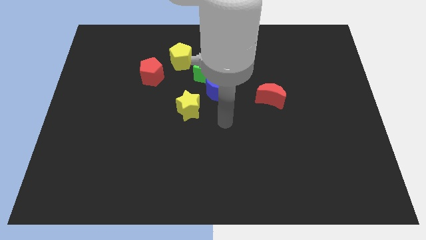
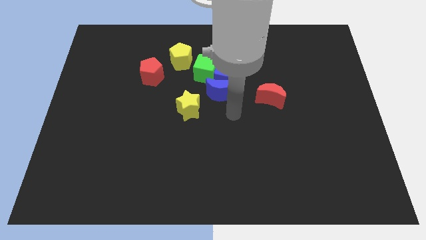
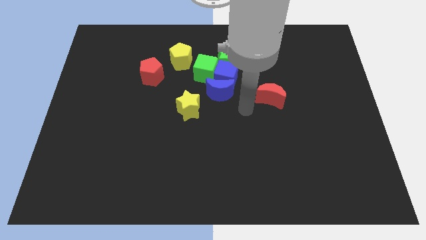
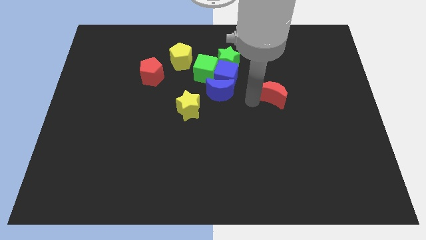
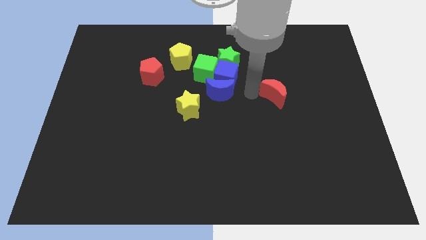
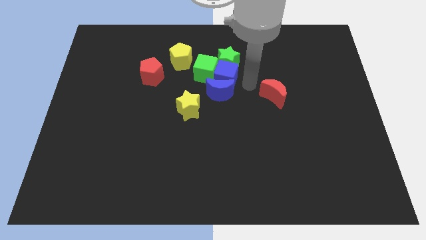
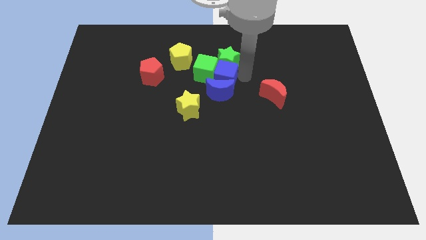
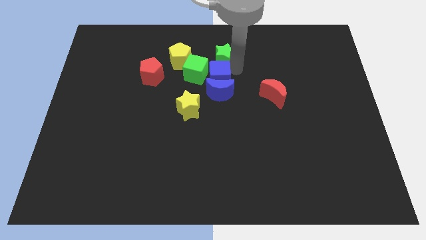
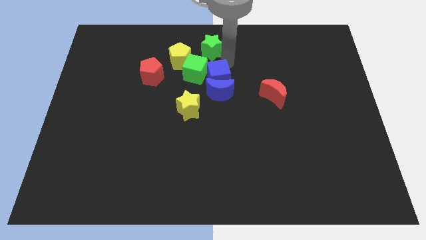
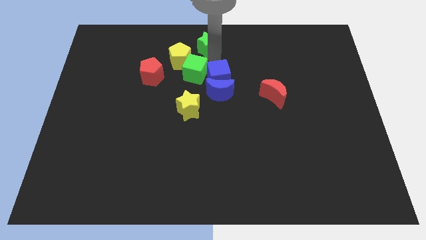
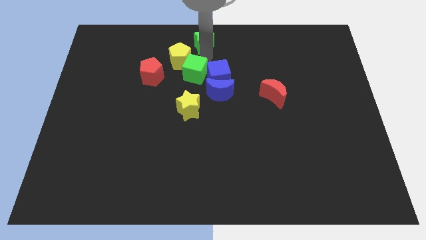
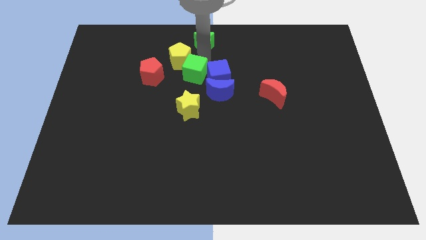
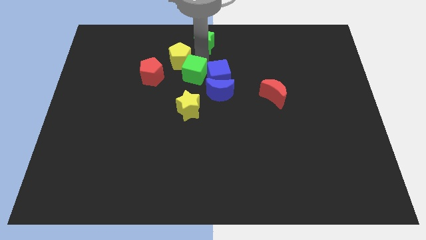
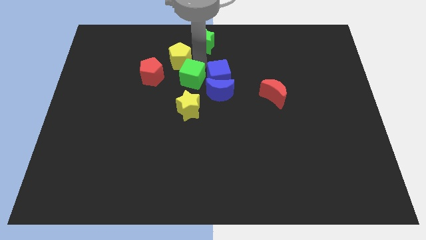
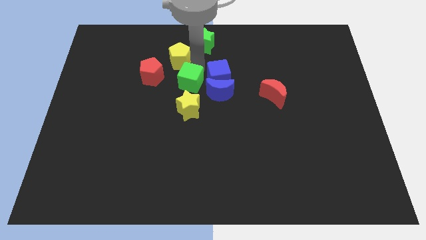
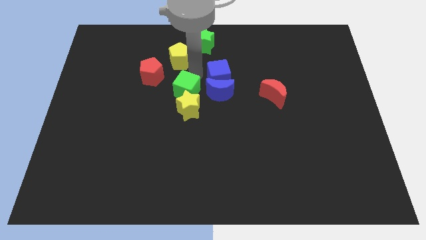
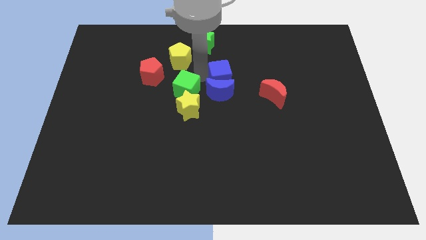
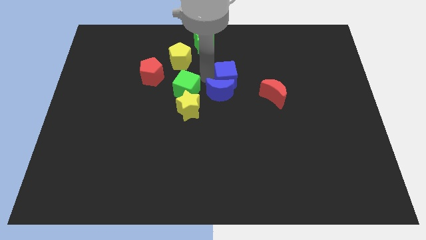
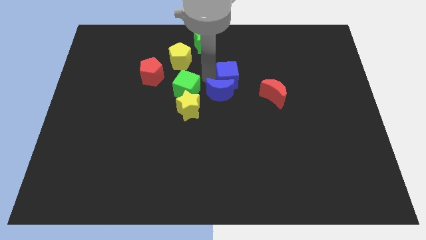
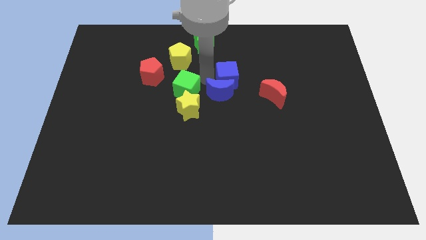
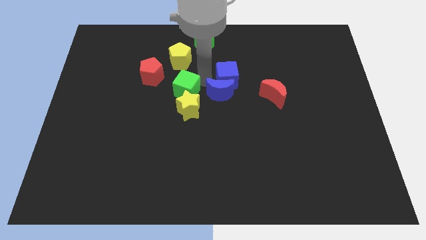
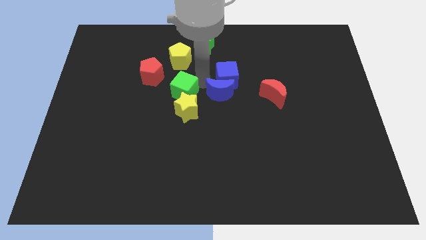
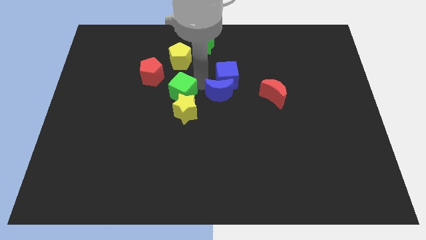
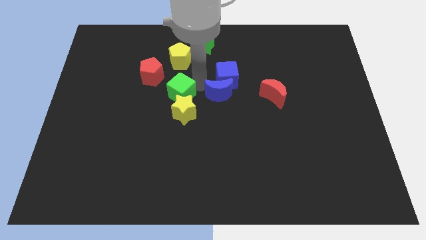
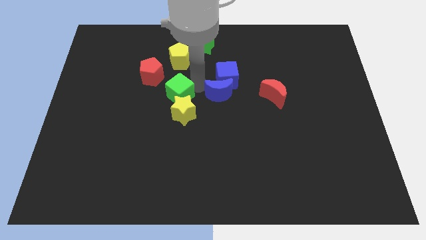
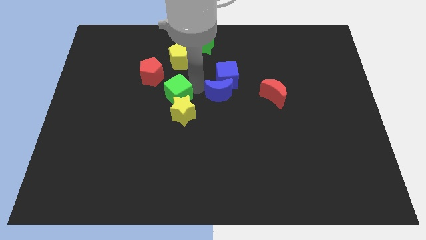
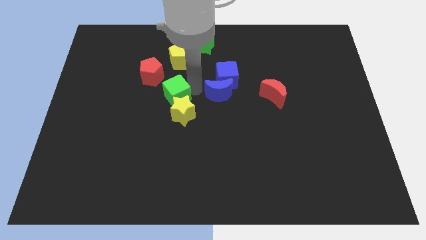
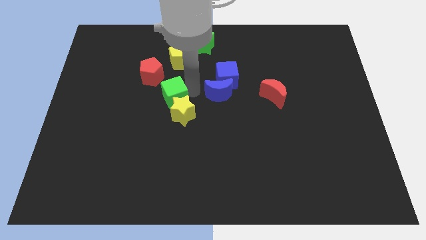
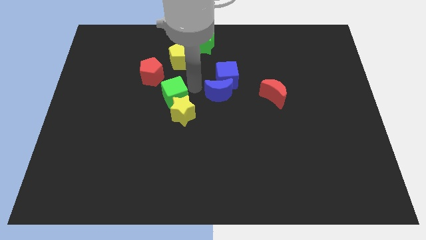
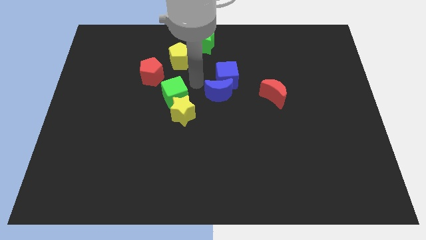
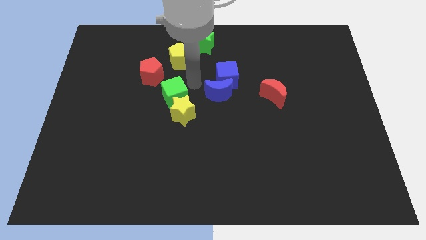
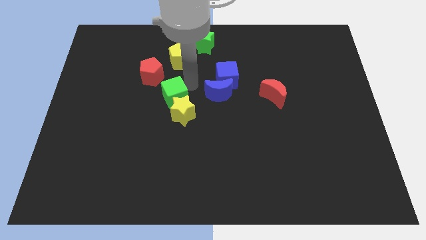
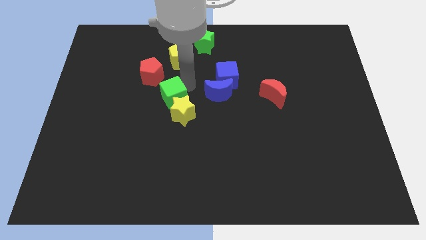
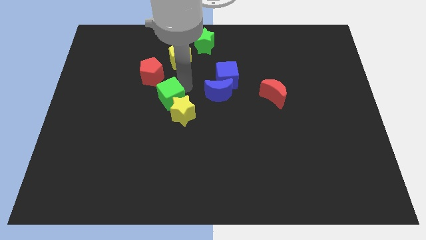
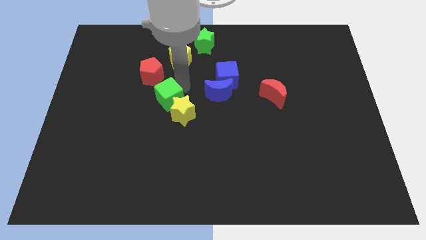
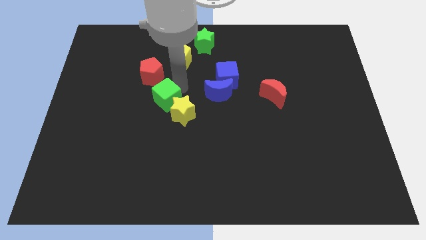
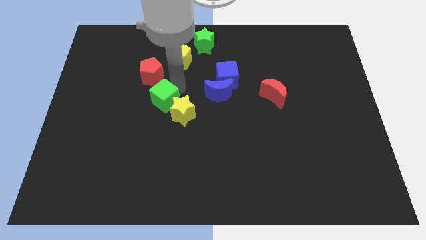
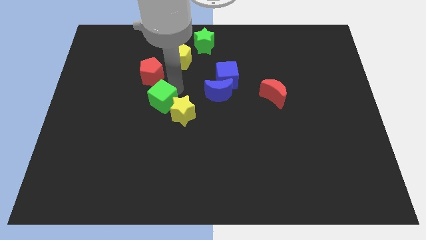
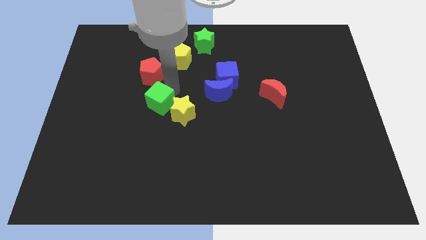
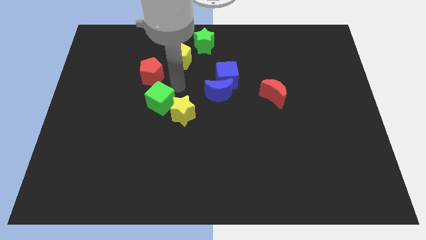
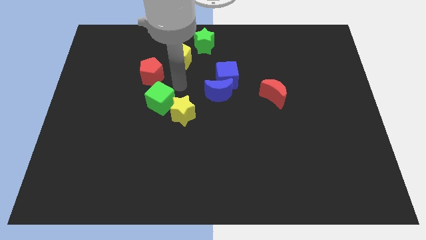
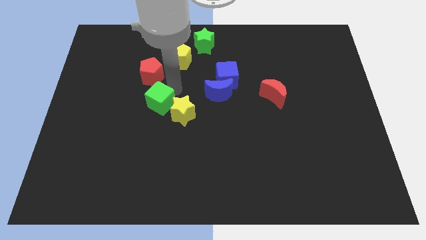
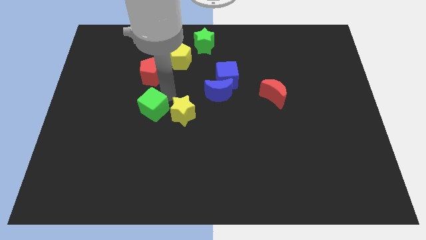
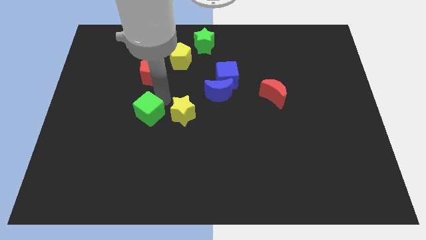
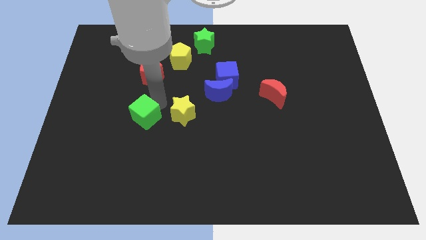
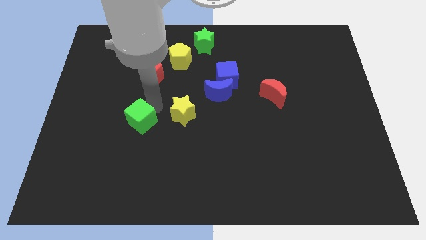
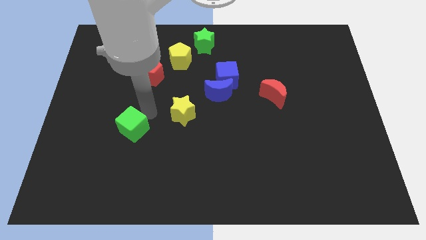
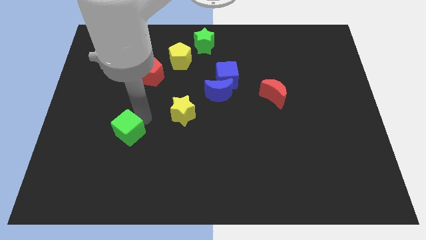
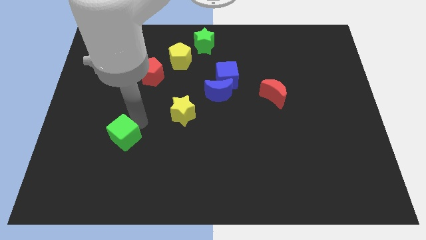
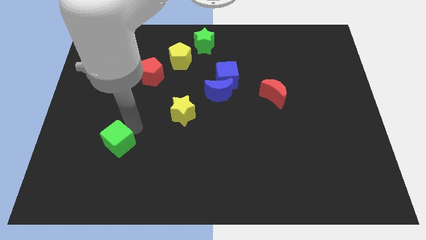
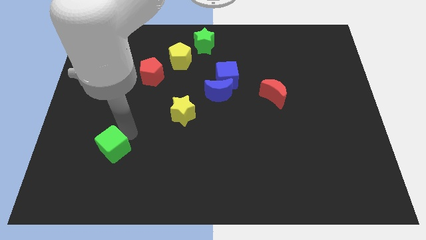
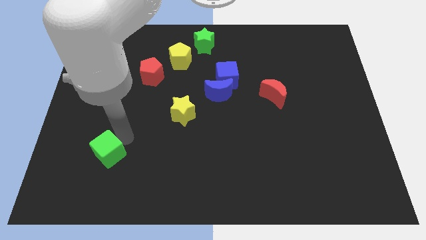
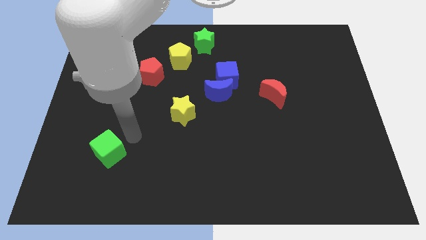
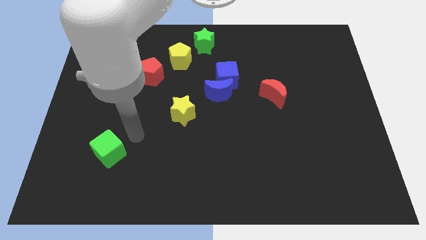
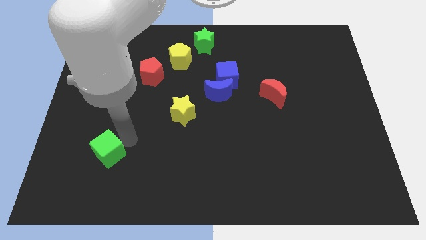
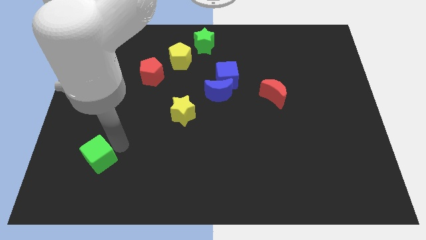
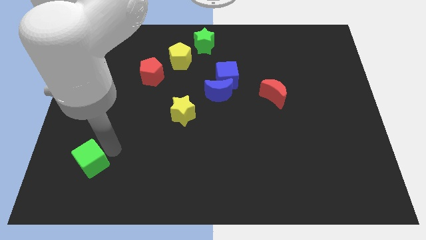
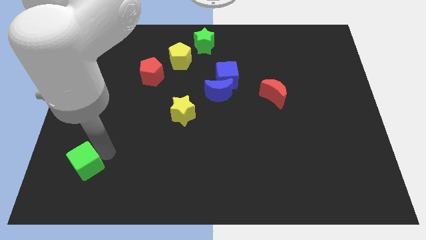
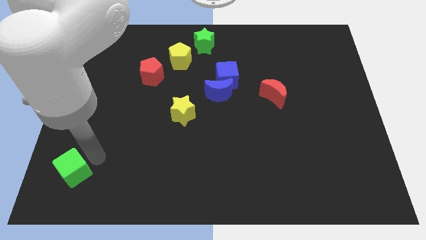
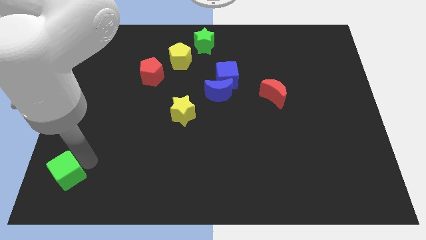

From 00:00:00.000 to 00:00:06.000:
put the green cube to the lower left corner
